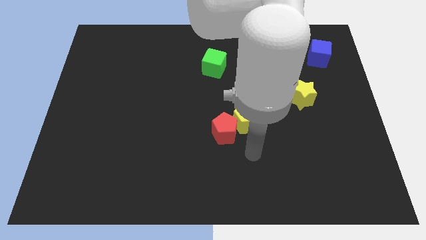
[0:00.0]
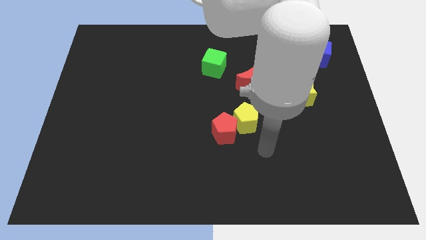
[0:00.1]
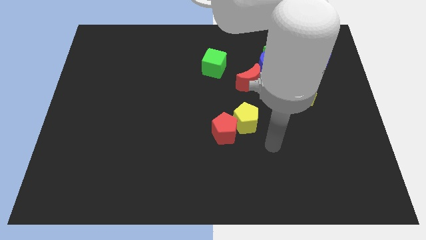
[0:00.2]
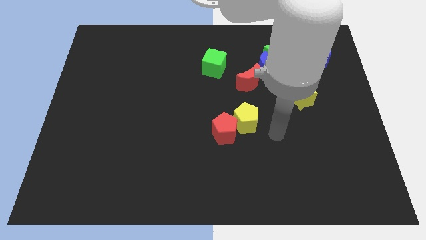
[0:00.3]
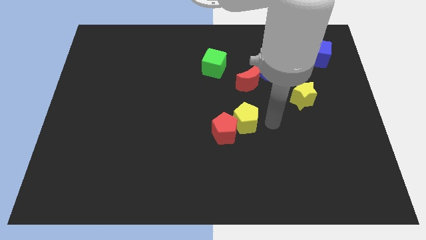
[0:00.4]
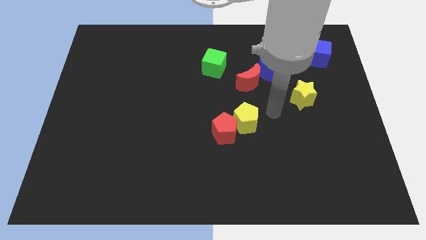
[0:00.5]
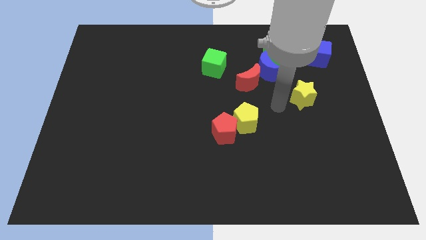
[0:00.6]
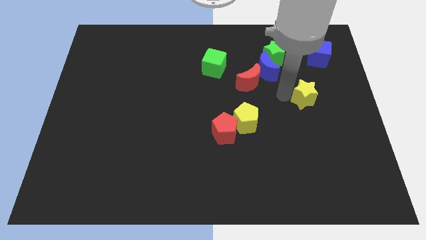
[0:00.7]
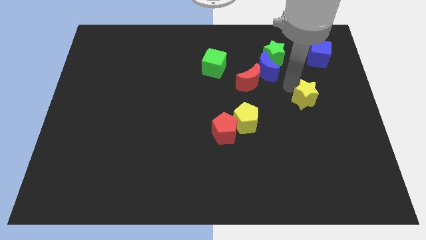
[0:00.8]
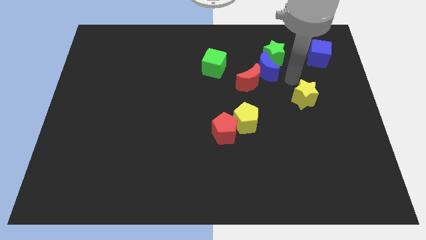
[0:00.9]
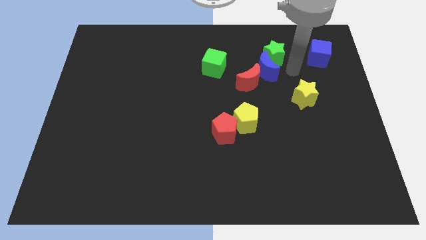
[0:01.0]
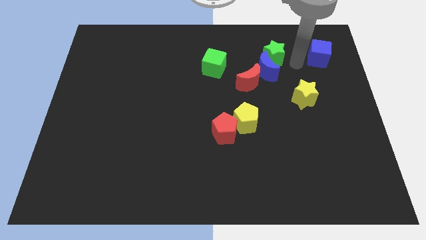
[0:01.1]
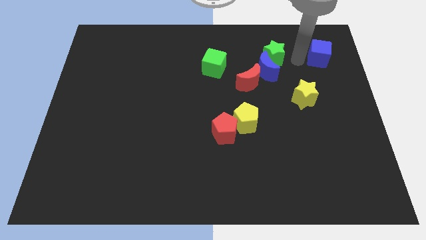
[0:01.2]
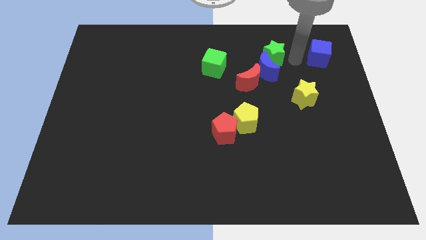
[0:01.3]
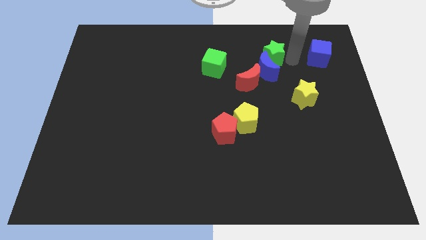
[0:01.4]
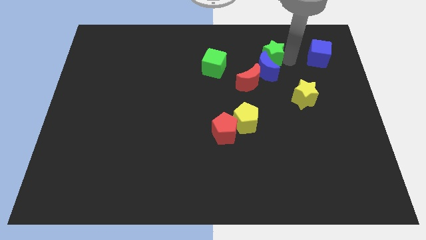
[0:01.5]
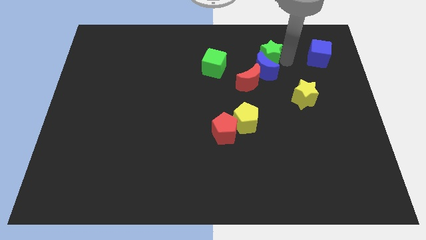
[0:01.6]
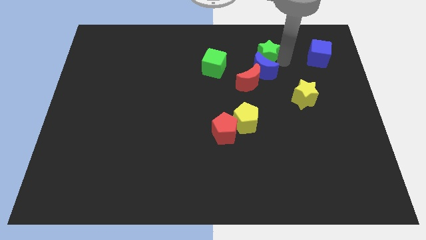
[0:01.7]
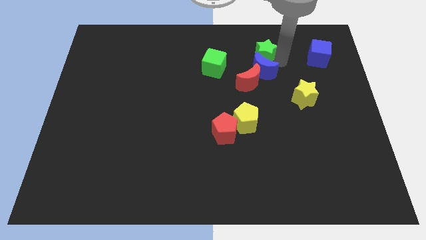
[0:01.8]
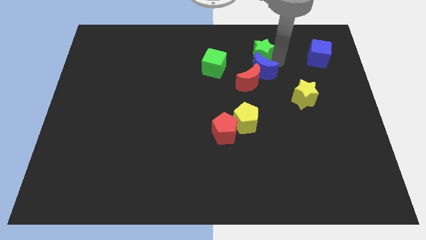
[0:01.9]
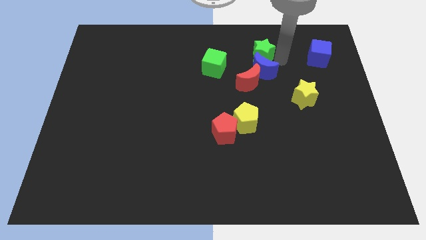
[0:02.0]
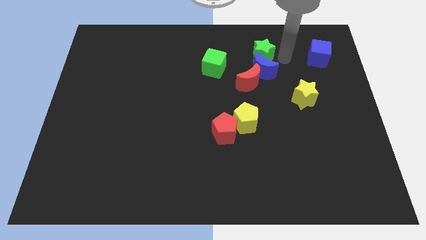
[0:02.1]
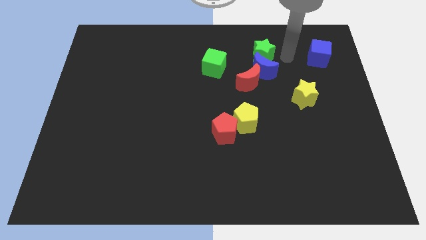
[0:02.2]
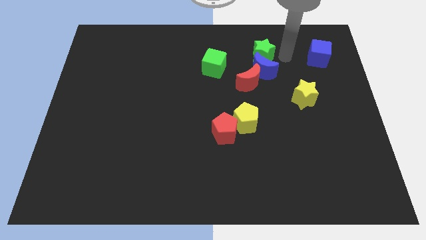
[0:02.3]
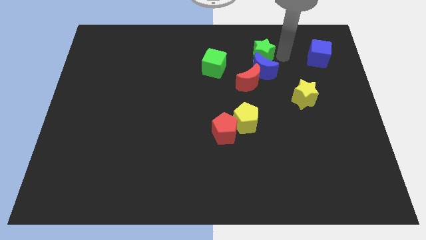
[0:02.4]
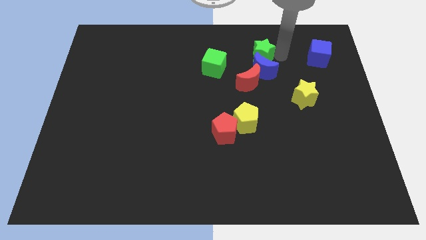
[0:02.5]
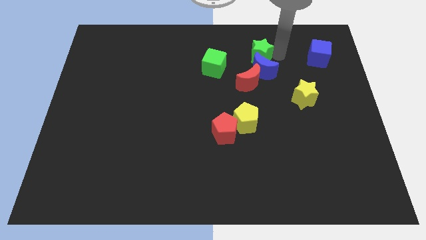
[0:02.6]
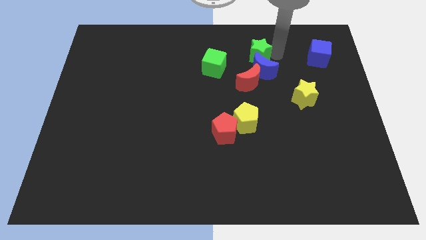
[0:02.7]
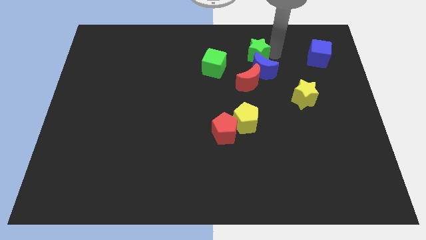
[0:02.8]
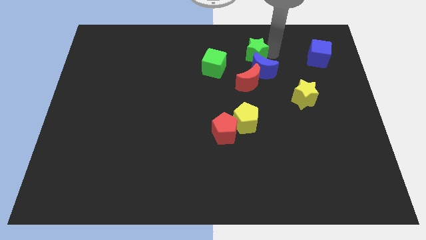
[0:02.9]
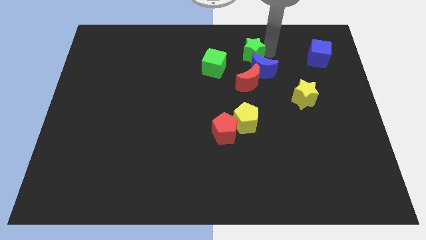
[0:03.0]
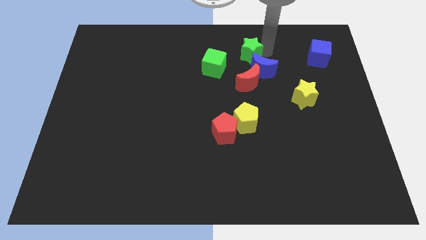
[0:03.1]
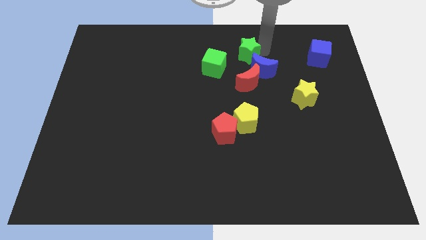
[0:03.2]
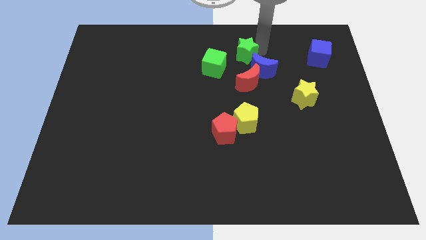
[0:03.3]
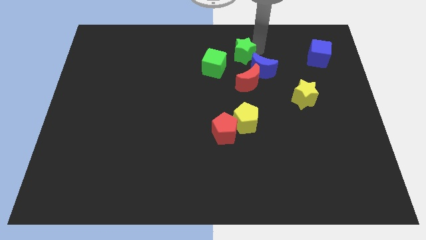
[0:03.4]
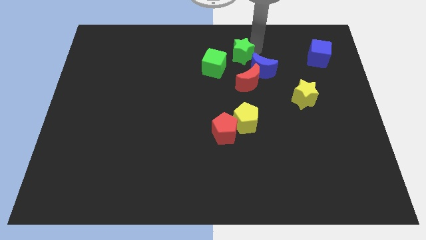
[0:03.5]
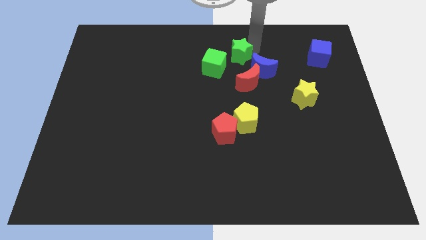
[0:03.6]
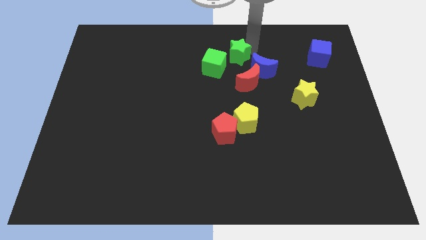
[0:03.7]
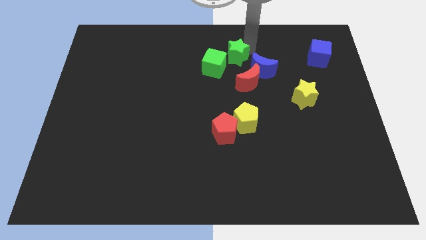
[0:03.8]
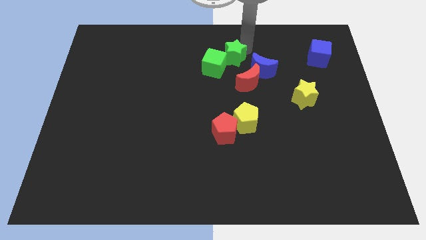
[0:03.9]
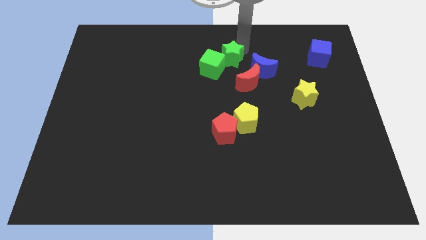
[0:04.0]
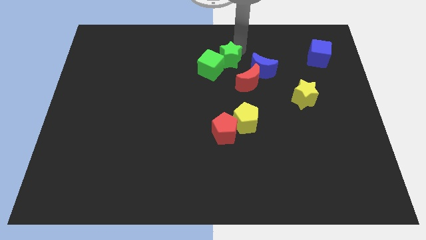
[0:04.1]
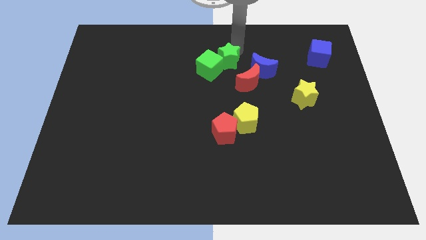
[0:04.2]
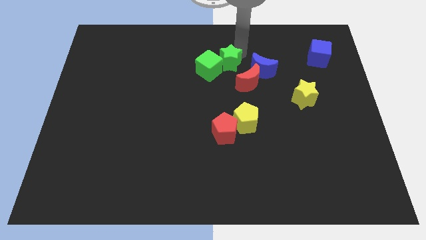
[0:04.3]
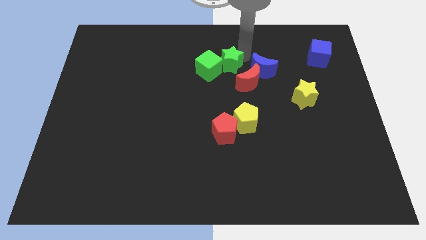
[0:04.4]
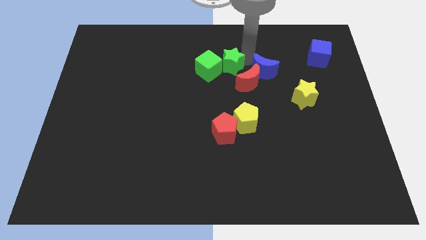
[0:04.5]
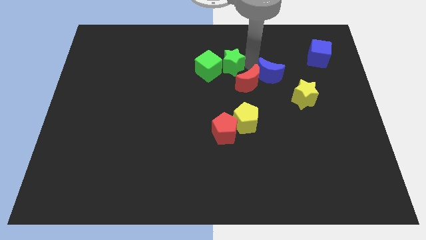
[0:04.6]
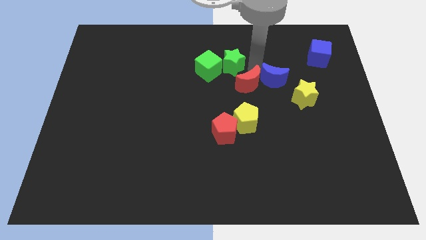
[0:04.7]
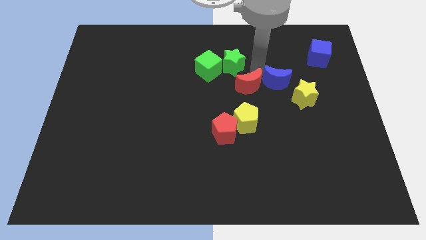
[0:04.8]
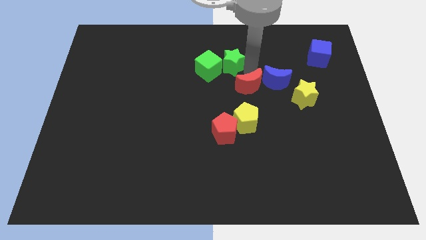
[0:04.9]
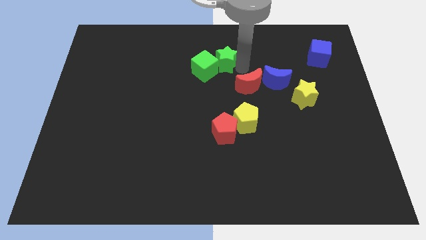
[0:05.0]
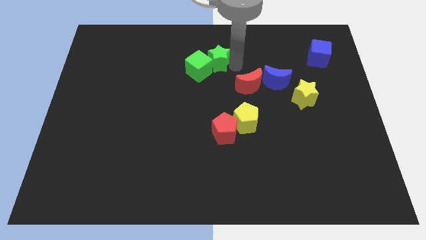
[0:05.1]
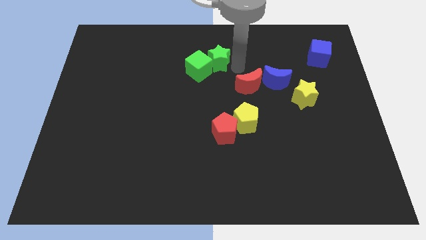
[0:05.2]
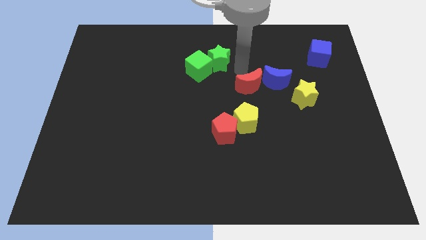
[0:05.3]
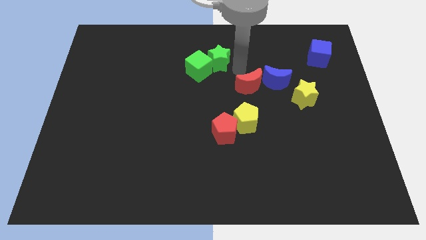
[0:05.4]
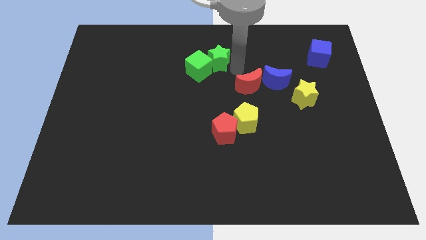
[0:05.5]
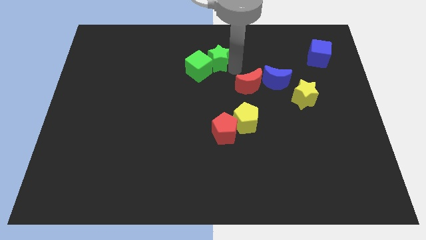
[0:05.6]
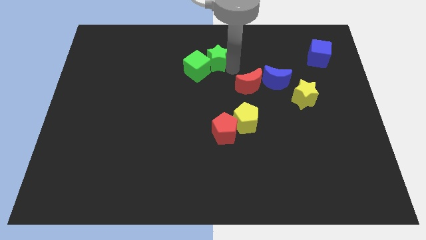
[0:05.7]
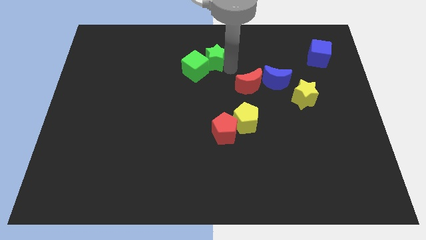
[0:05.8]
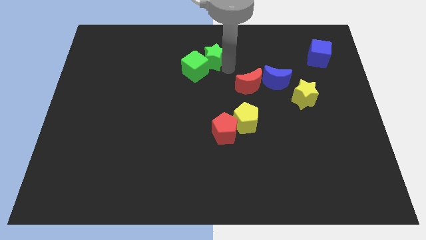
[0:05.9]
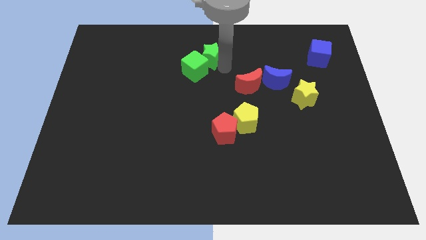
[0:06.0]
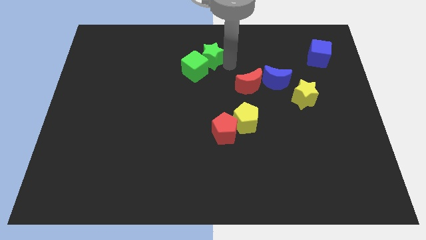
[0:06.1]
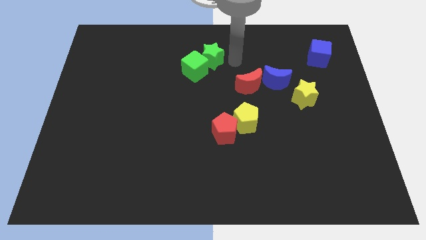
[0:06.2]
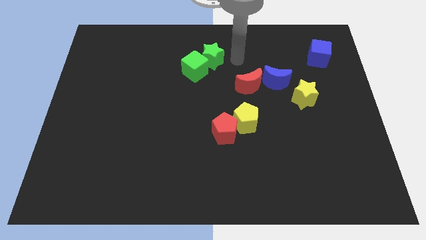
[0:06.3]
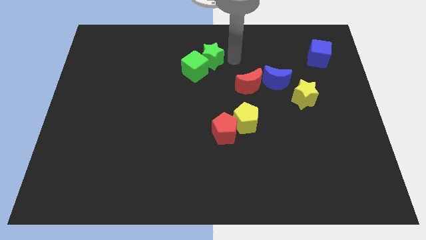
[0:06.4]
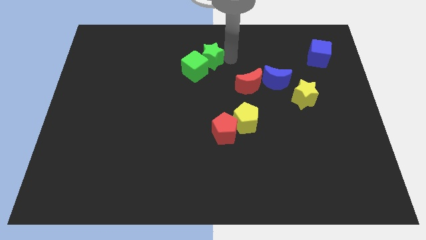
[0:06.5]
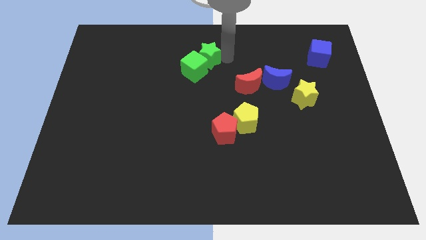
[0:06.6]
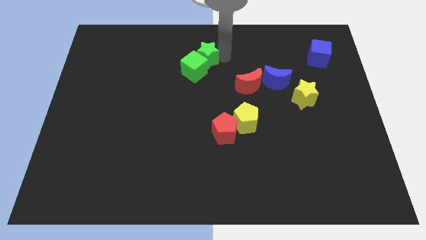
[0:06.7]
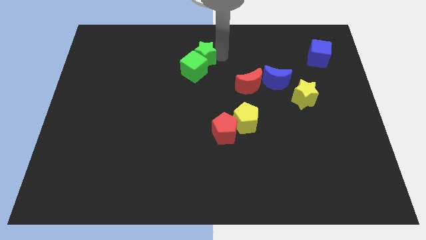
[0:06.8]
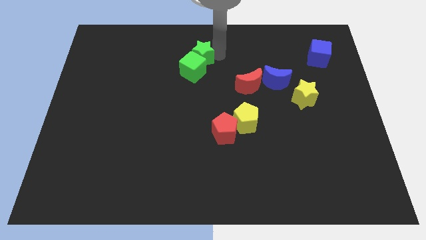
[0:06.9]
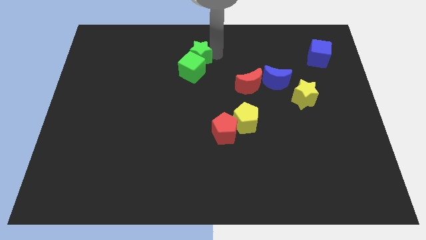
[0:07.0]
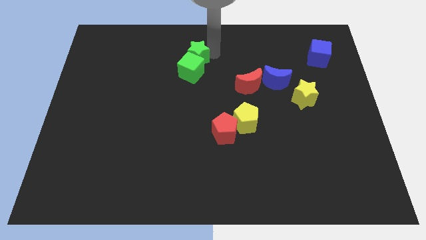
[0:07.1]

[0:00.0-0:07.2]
slide the green star left

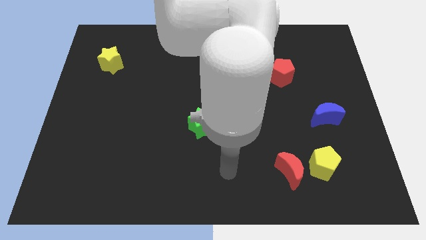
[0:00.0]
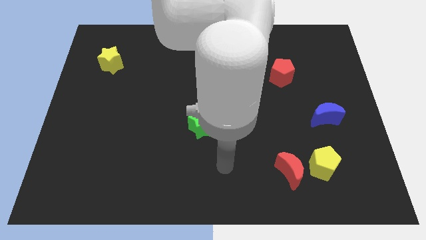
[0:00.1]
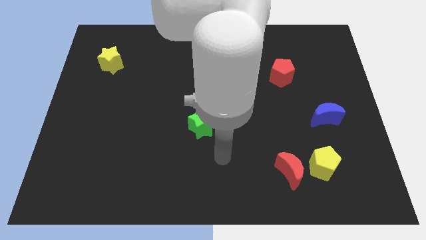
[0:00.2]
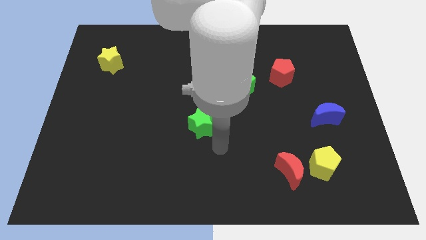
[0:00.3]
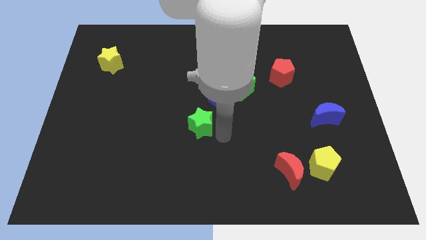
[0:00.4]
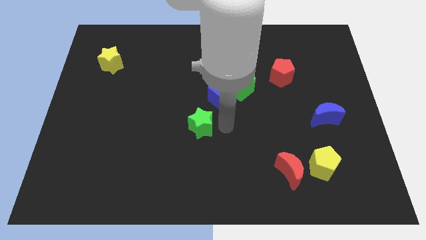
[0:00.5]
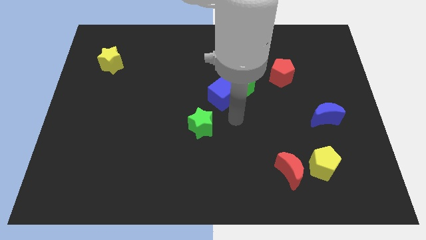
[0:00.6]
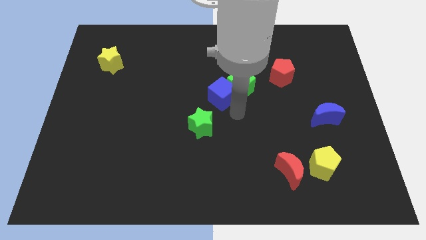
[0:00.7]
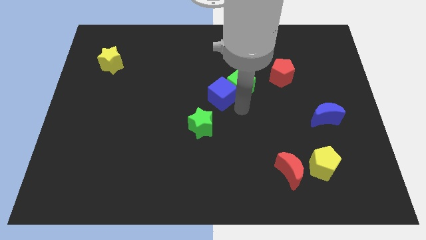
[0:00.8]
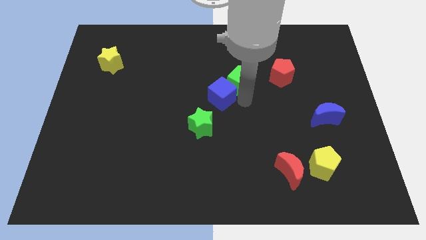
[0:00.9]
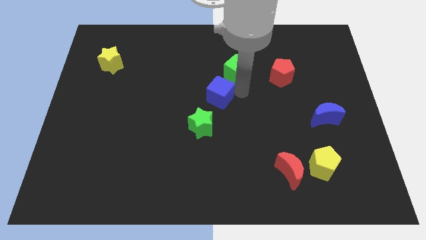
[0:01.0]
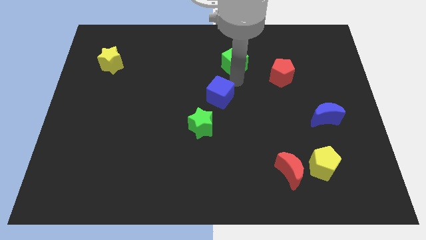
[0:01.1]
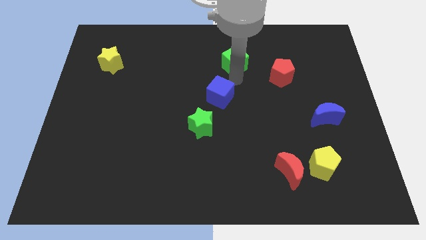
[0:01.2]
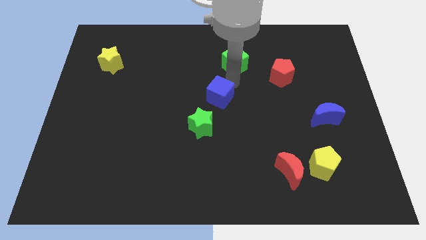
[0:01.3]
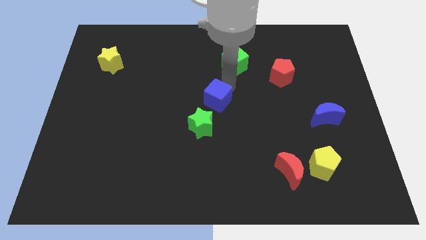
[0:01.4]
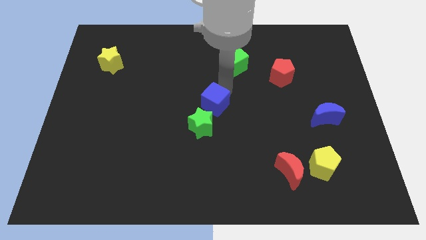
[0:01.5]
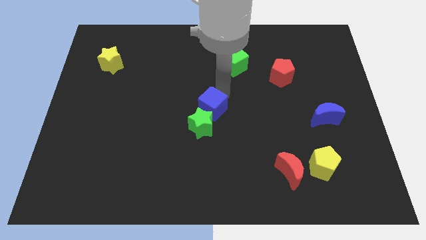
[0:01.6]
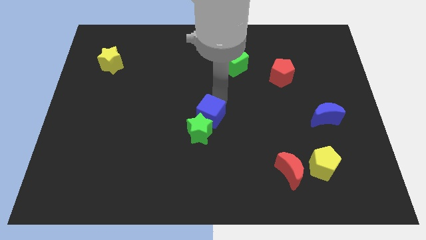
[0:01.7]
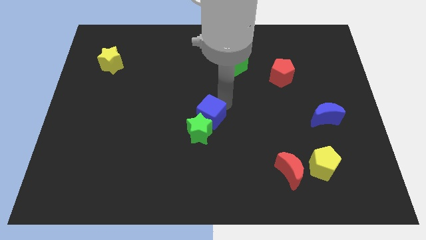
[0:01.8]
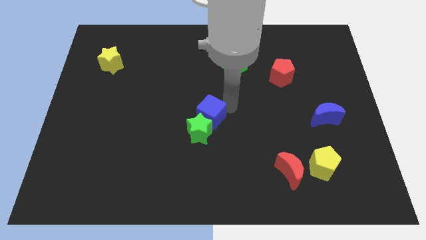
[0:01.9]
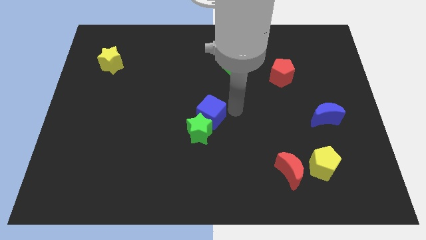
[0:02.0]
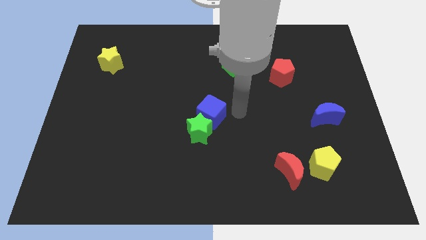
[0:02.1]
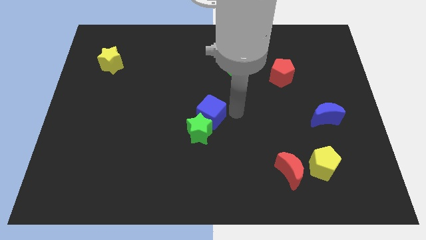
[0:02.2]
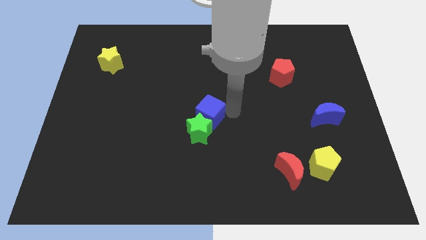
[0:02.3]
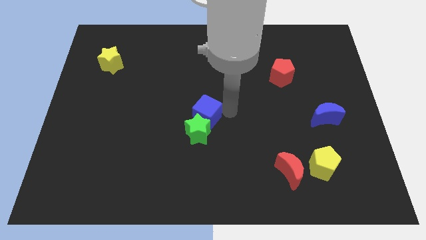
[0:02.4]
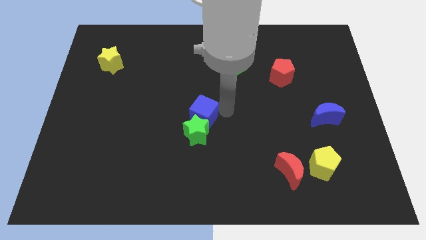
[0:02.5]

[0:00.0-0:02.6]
slightly push the blue cube down and to the left diagonally
